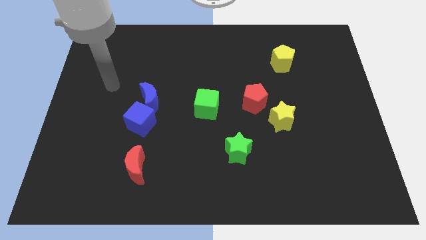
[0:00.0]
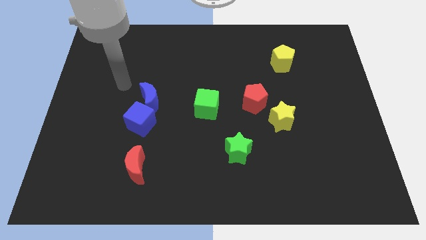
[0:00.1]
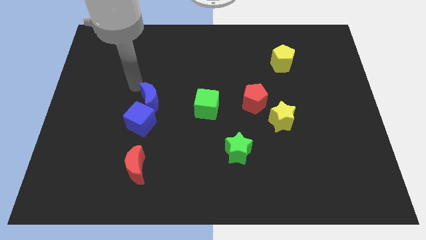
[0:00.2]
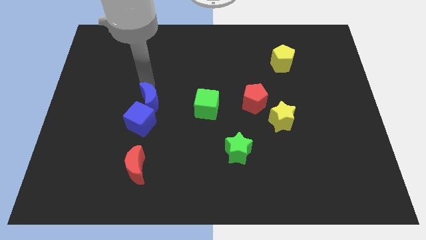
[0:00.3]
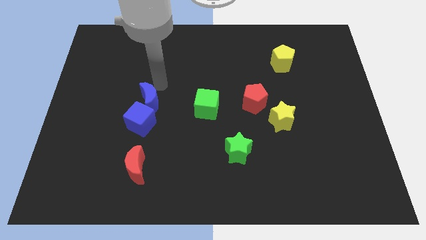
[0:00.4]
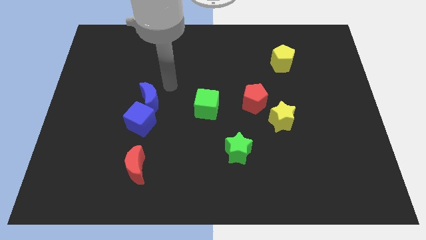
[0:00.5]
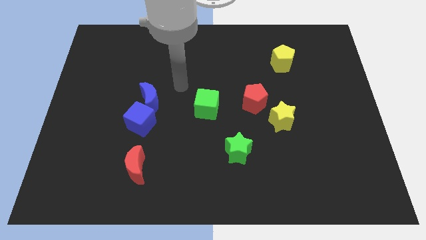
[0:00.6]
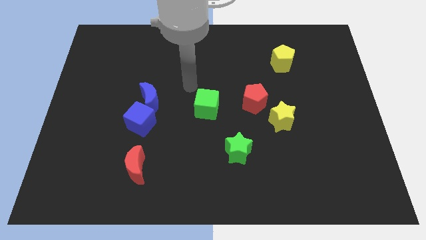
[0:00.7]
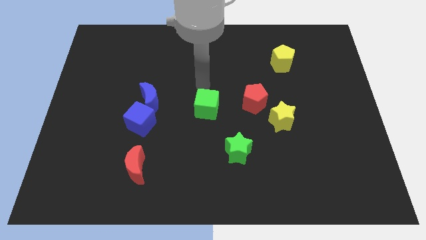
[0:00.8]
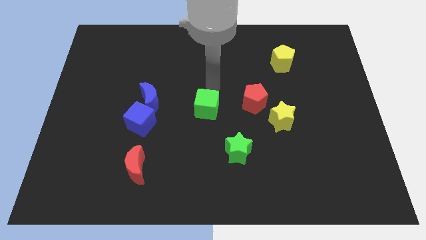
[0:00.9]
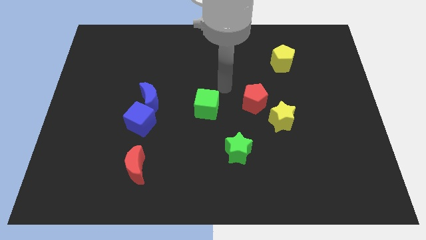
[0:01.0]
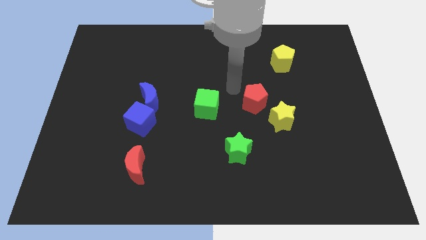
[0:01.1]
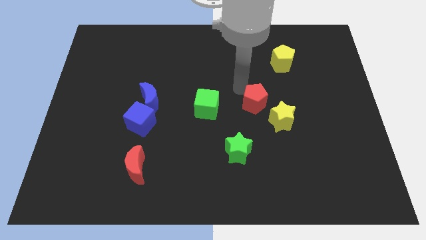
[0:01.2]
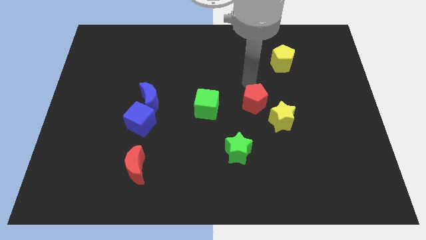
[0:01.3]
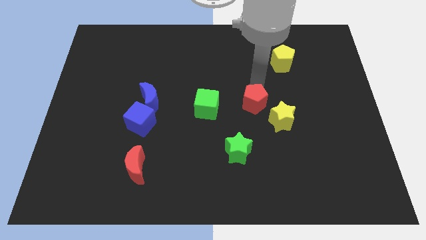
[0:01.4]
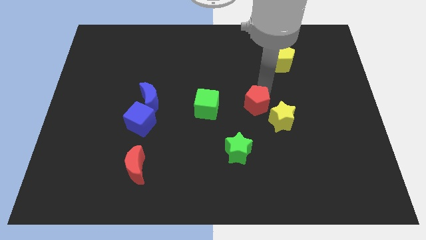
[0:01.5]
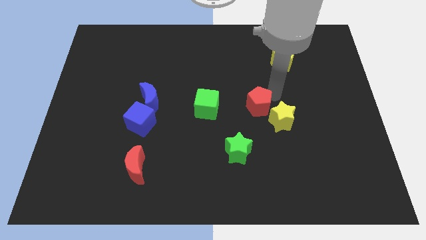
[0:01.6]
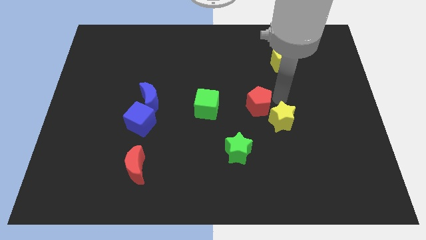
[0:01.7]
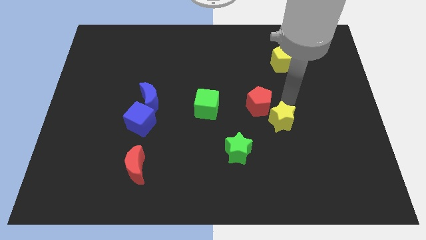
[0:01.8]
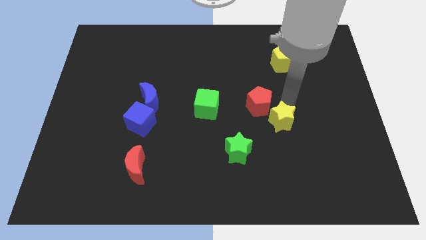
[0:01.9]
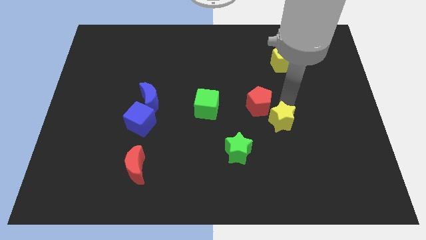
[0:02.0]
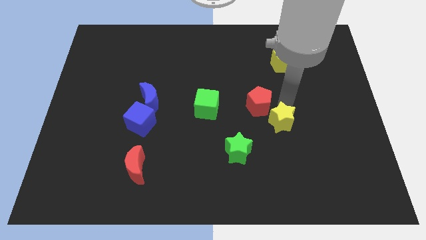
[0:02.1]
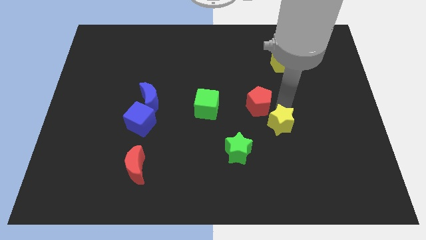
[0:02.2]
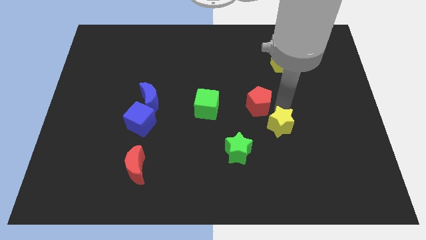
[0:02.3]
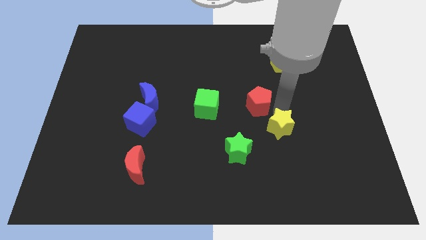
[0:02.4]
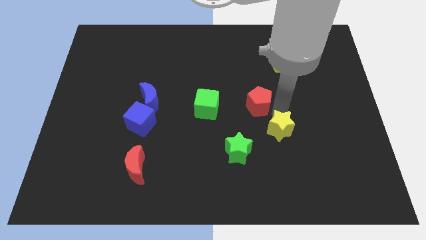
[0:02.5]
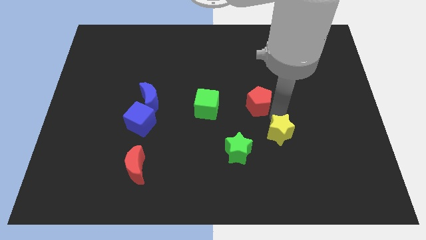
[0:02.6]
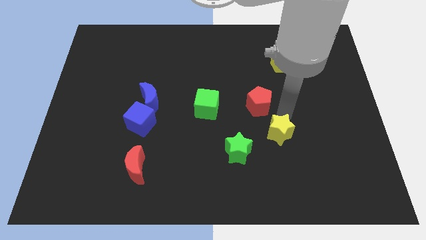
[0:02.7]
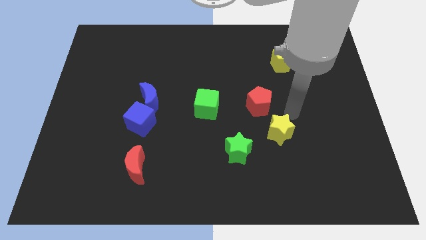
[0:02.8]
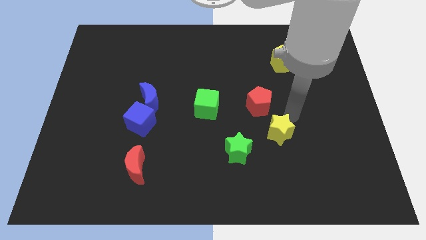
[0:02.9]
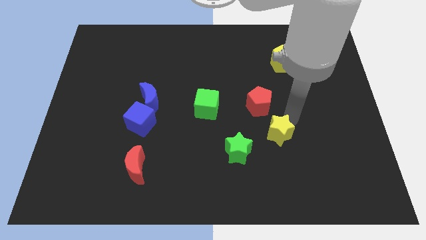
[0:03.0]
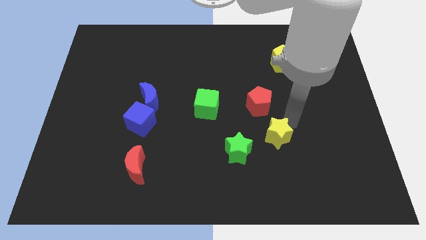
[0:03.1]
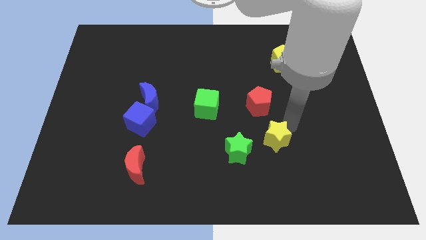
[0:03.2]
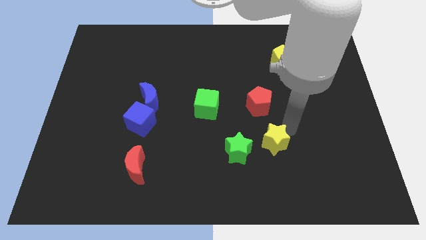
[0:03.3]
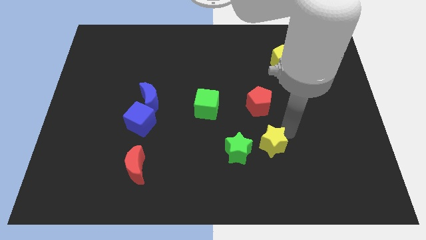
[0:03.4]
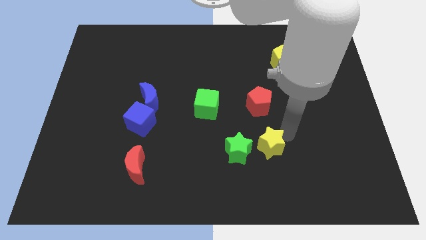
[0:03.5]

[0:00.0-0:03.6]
push the yellow star down and left a little

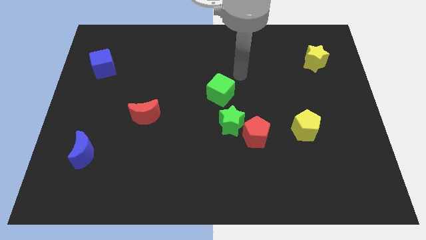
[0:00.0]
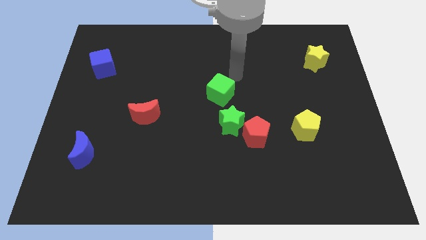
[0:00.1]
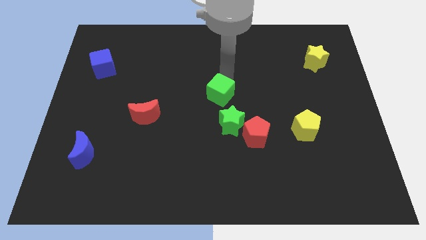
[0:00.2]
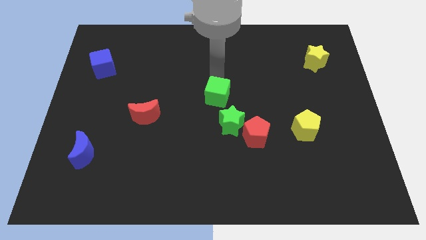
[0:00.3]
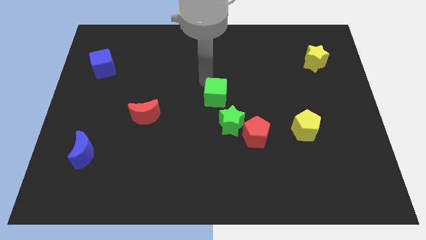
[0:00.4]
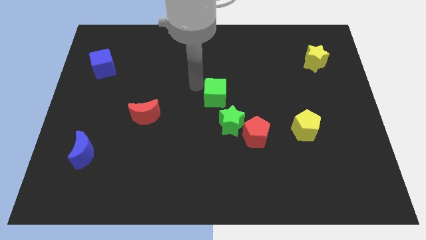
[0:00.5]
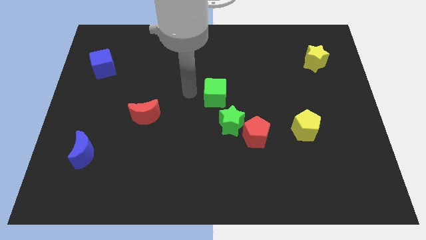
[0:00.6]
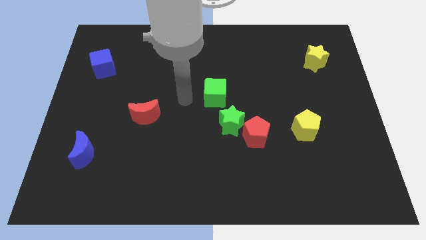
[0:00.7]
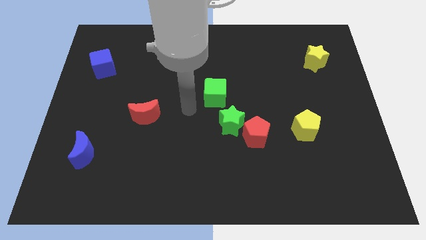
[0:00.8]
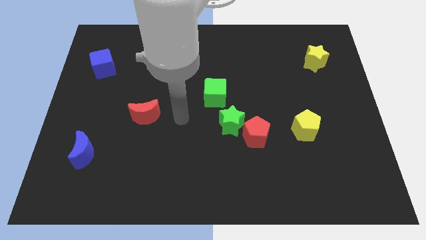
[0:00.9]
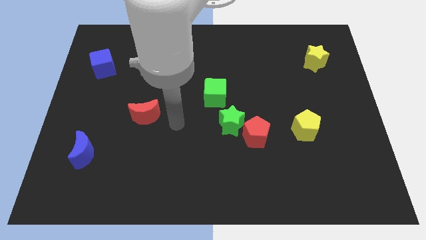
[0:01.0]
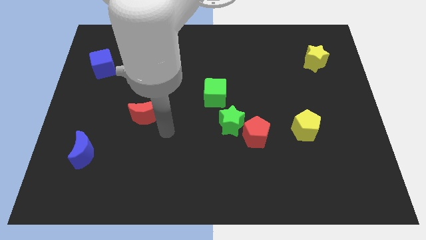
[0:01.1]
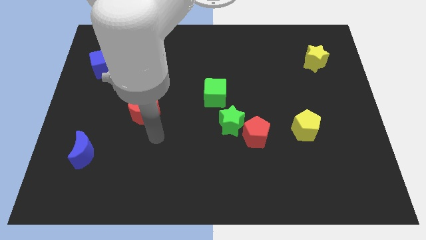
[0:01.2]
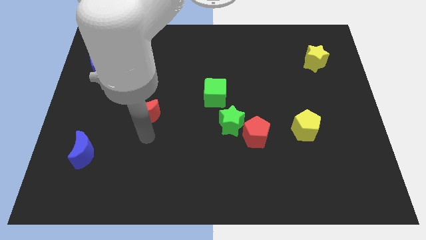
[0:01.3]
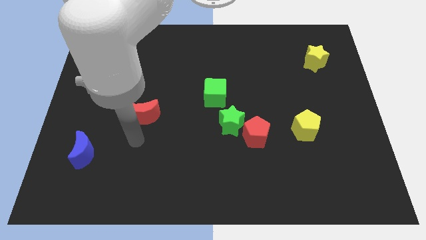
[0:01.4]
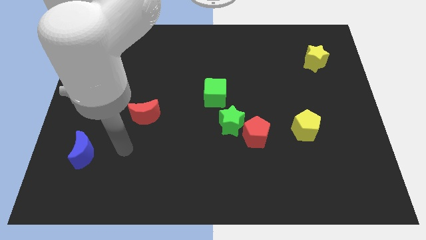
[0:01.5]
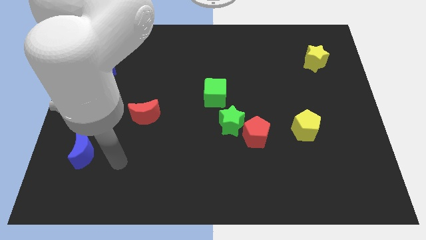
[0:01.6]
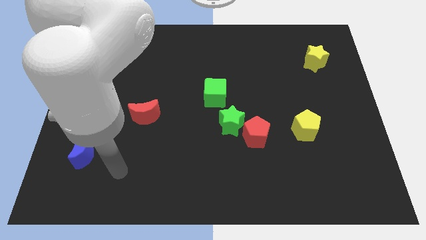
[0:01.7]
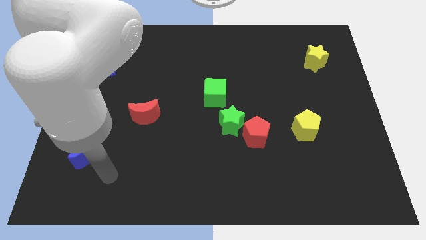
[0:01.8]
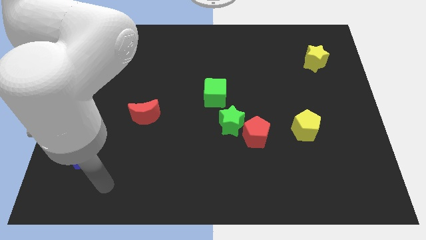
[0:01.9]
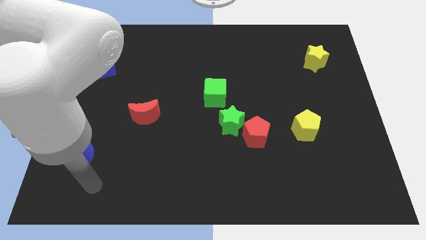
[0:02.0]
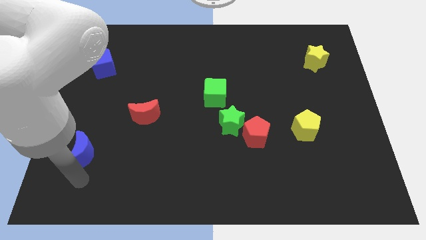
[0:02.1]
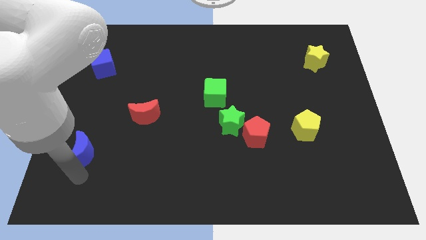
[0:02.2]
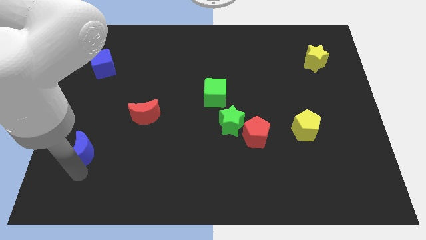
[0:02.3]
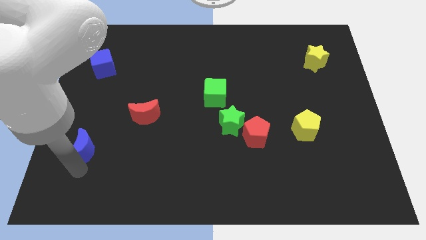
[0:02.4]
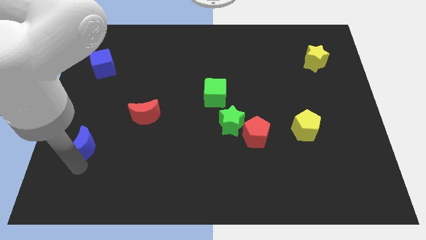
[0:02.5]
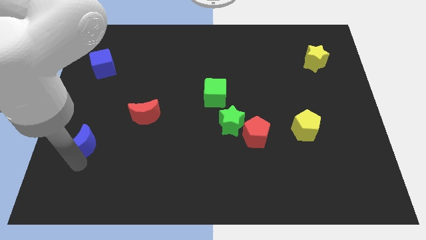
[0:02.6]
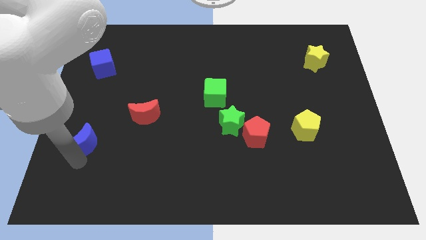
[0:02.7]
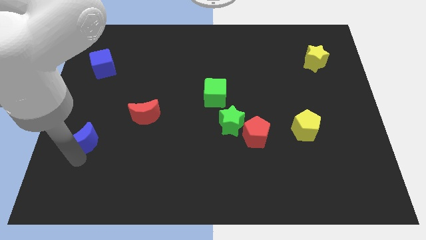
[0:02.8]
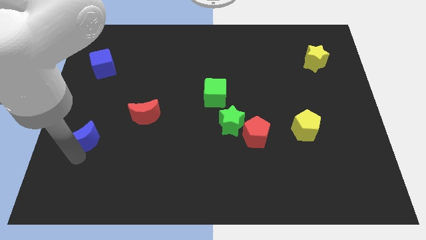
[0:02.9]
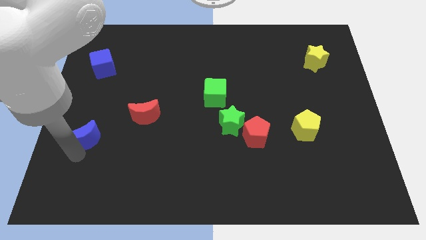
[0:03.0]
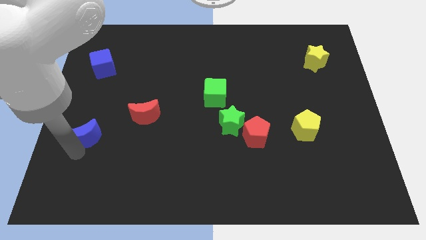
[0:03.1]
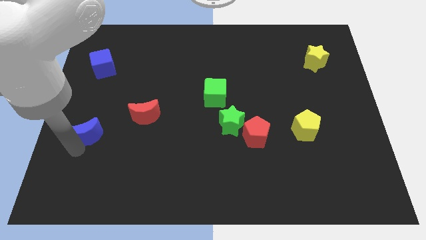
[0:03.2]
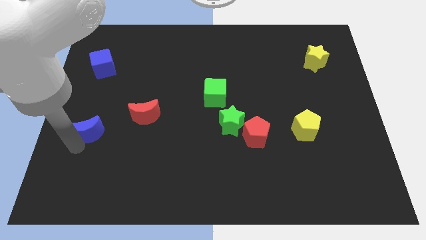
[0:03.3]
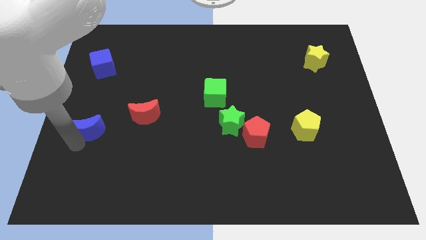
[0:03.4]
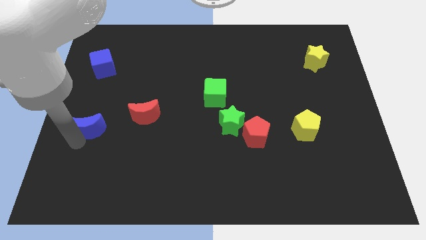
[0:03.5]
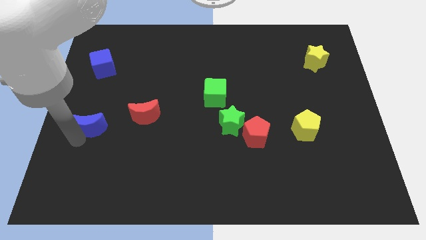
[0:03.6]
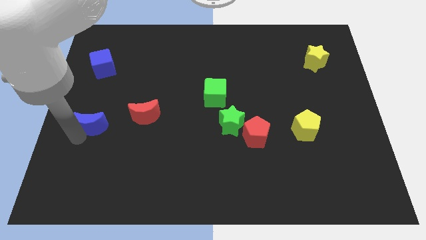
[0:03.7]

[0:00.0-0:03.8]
slightly slide the blue moon upwards

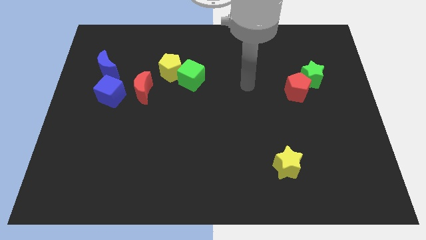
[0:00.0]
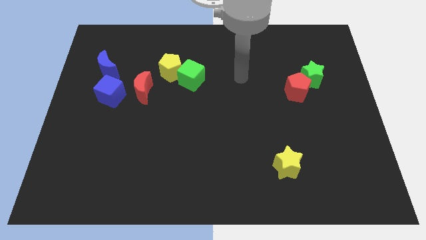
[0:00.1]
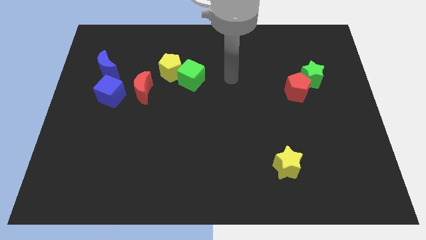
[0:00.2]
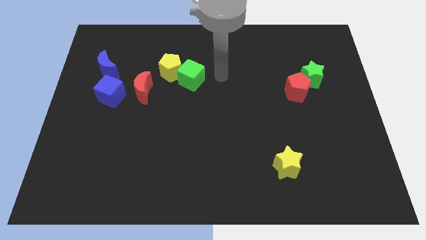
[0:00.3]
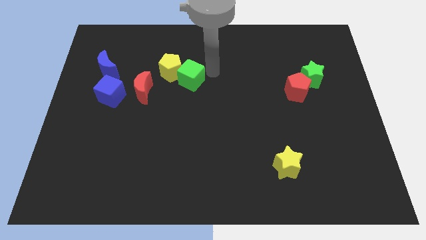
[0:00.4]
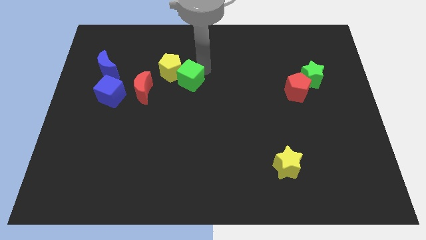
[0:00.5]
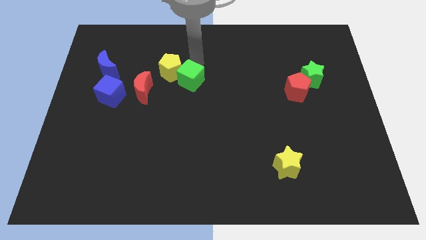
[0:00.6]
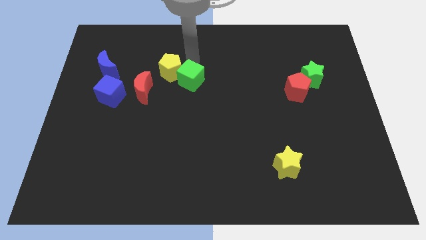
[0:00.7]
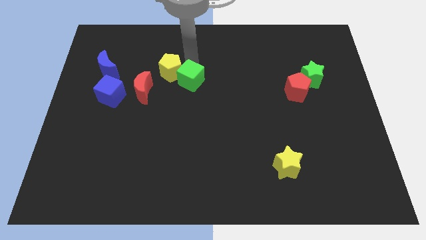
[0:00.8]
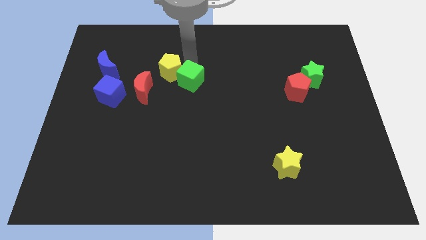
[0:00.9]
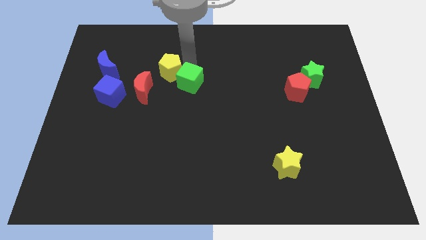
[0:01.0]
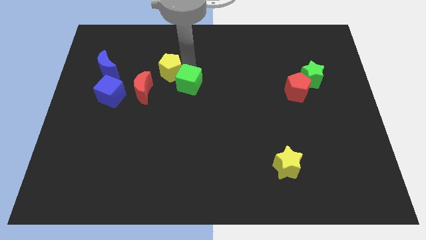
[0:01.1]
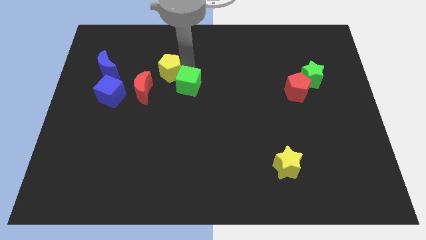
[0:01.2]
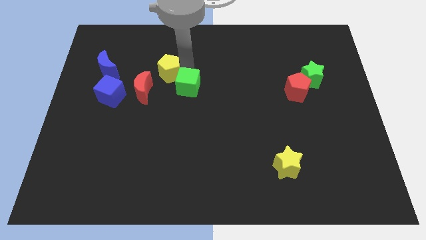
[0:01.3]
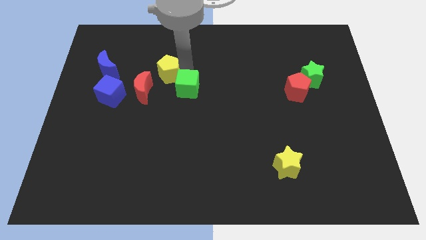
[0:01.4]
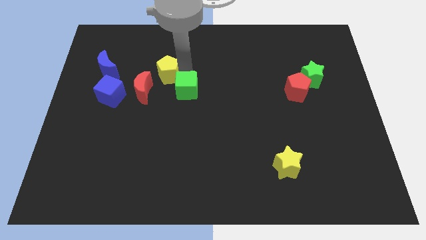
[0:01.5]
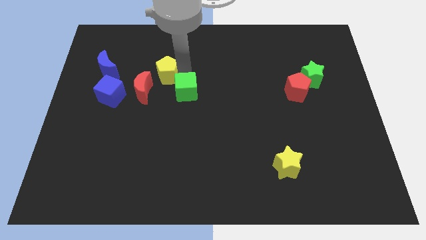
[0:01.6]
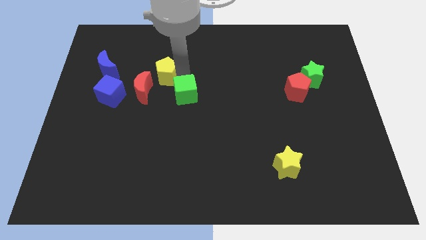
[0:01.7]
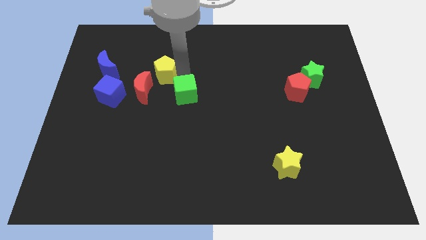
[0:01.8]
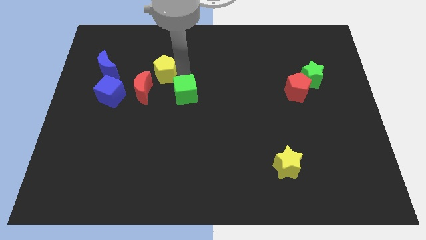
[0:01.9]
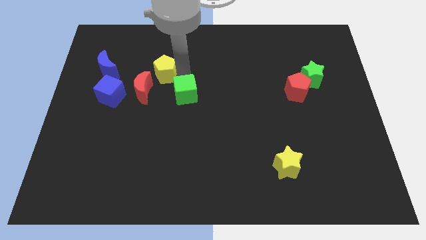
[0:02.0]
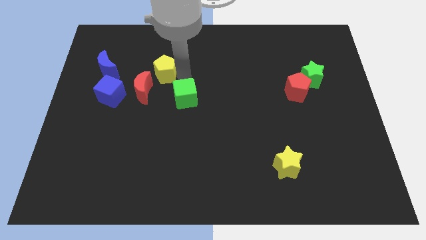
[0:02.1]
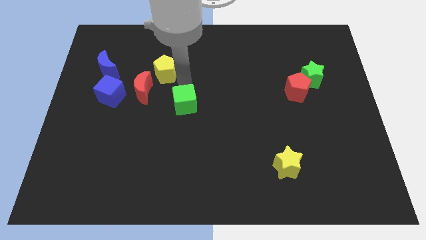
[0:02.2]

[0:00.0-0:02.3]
slide the green cube down a little bit
